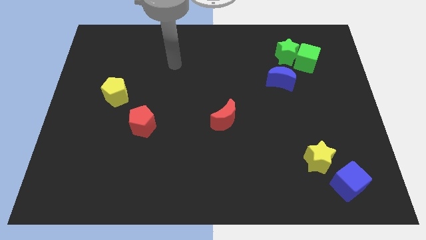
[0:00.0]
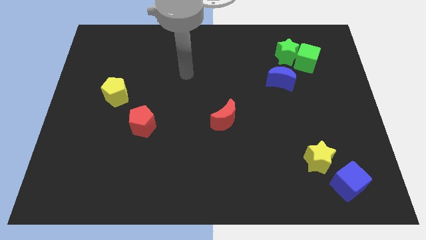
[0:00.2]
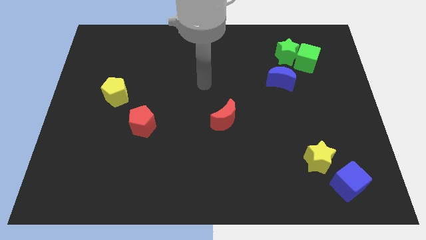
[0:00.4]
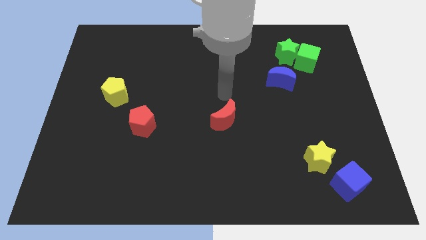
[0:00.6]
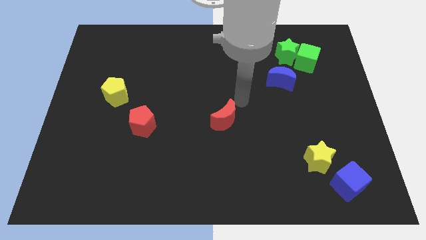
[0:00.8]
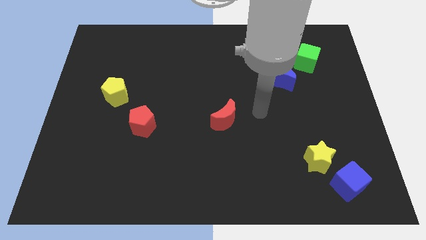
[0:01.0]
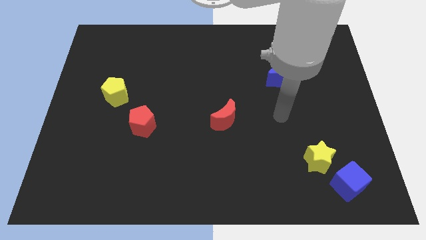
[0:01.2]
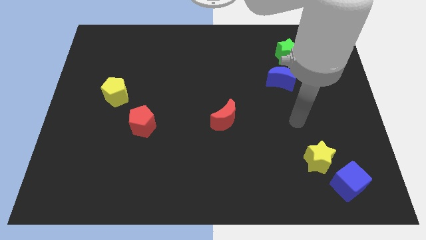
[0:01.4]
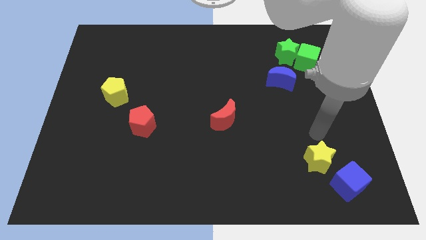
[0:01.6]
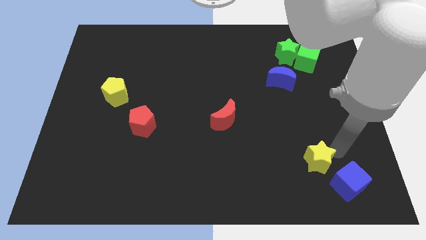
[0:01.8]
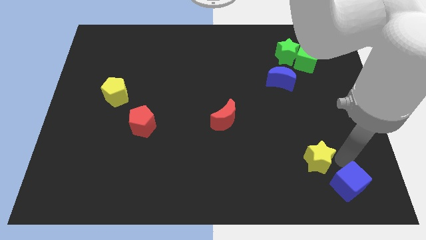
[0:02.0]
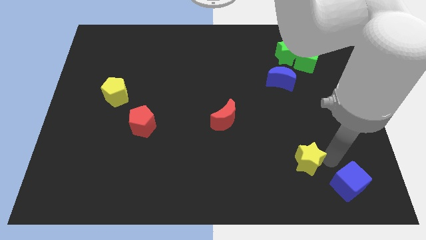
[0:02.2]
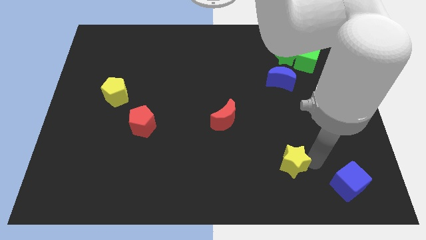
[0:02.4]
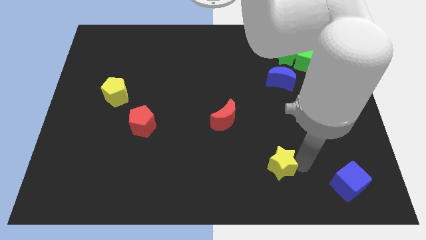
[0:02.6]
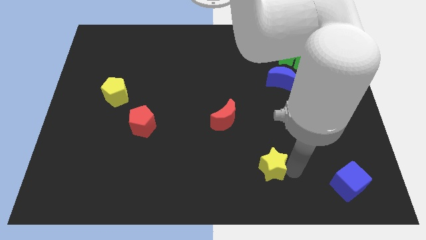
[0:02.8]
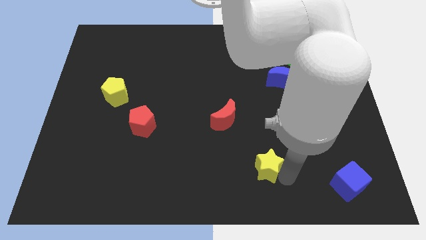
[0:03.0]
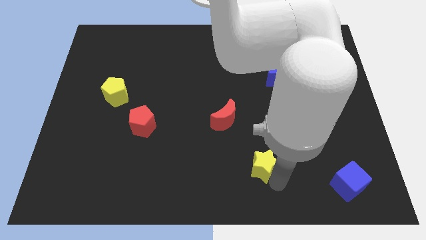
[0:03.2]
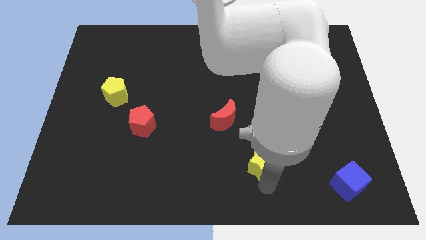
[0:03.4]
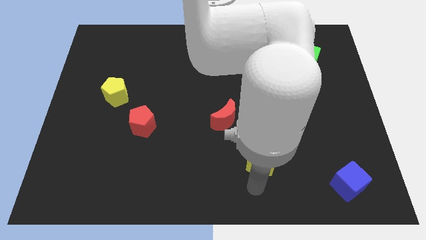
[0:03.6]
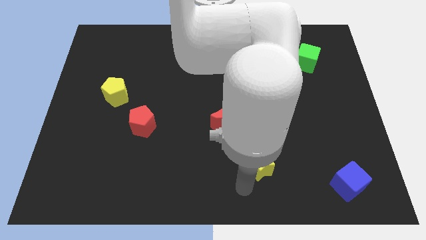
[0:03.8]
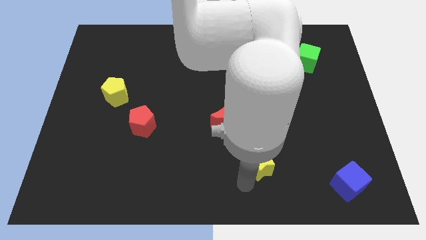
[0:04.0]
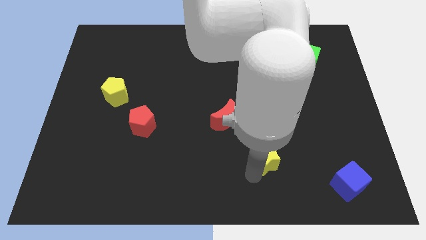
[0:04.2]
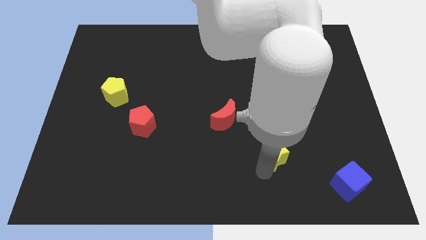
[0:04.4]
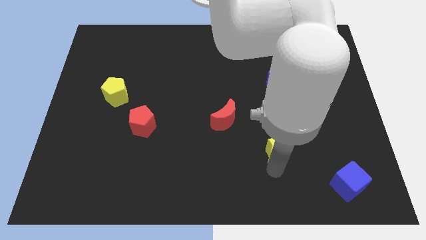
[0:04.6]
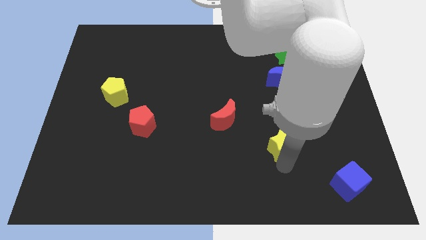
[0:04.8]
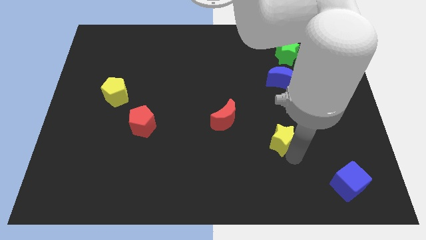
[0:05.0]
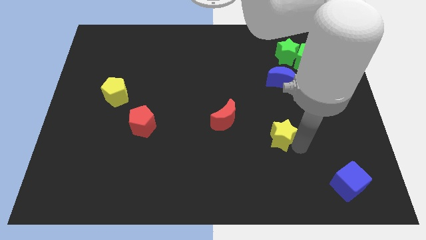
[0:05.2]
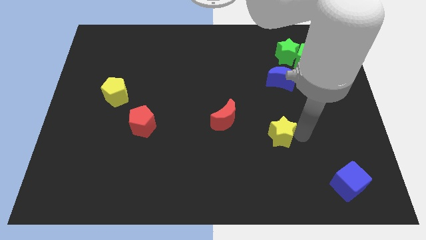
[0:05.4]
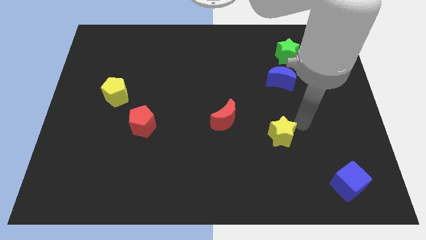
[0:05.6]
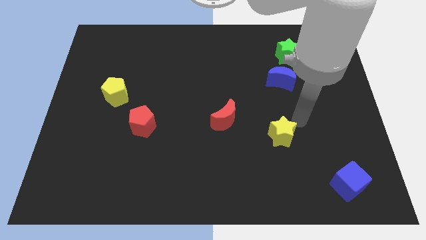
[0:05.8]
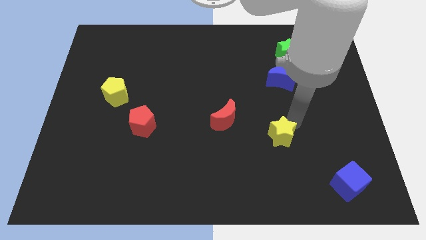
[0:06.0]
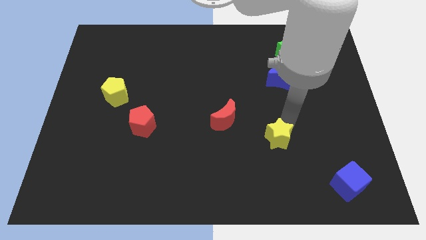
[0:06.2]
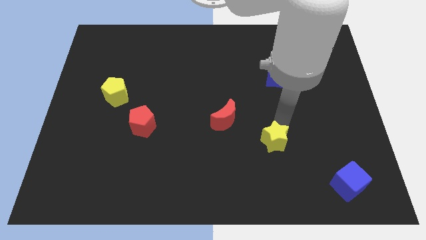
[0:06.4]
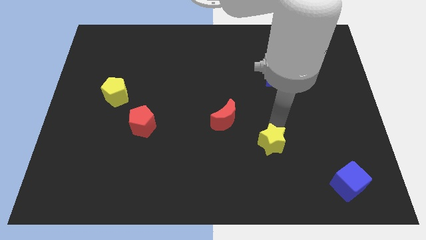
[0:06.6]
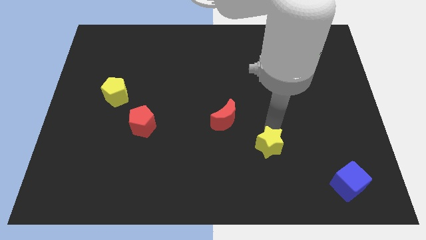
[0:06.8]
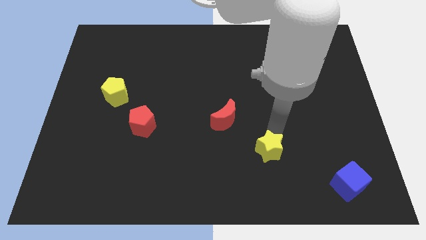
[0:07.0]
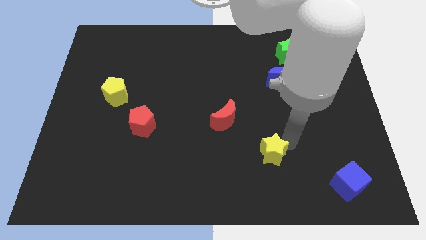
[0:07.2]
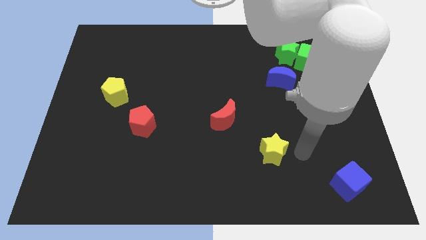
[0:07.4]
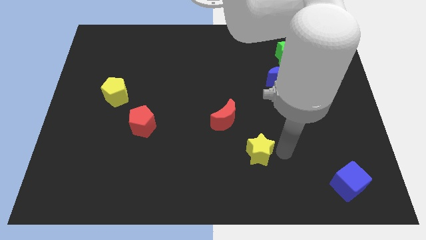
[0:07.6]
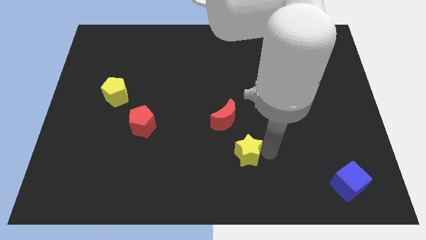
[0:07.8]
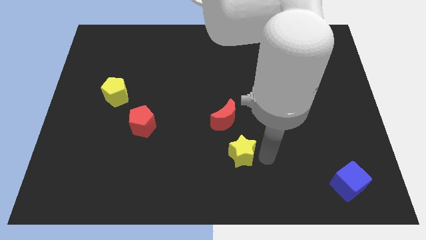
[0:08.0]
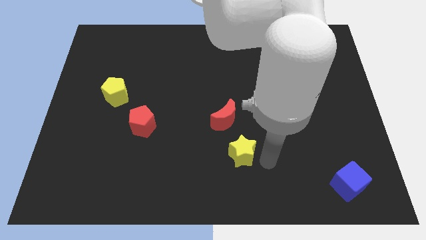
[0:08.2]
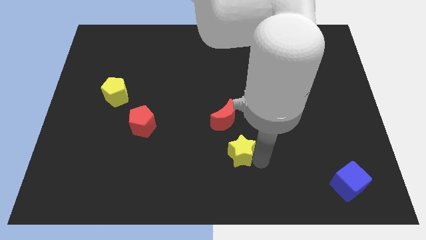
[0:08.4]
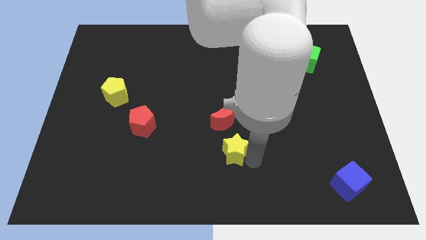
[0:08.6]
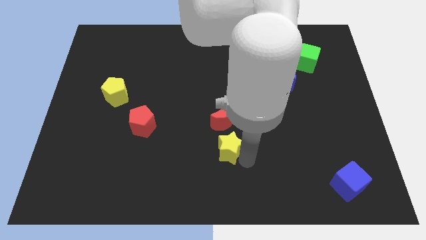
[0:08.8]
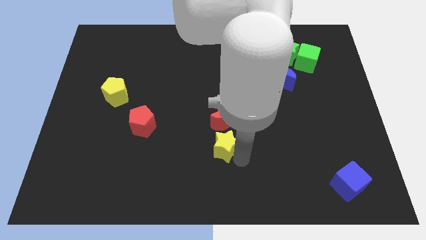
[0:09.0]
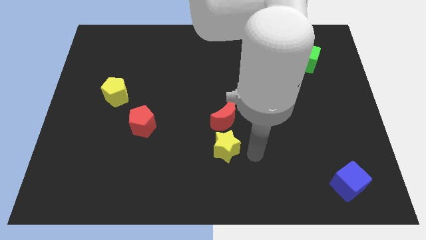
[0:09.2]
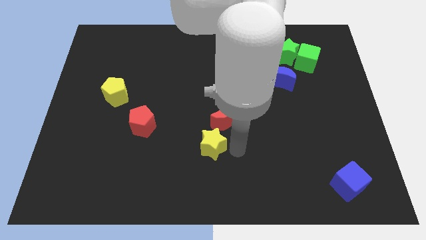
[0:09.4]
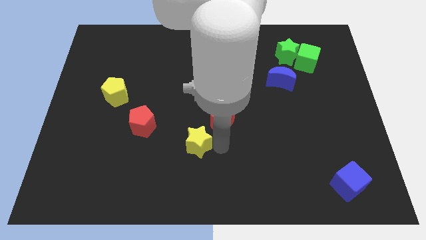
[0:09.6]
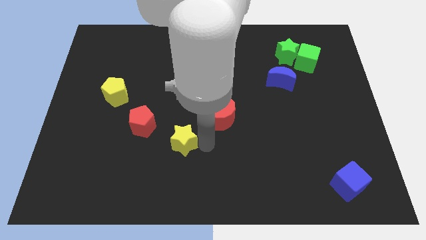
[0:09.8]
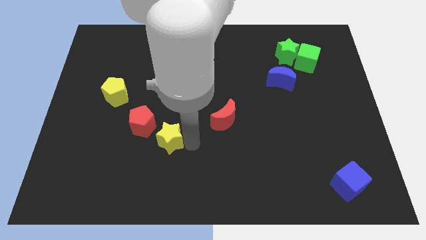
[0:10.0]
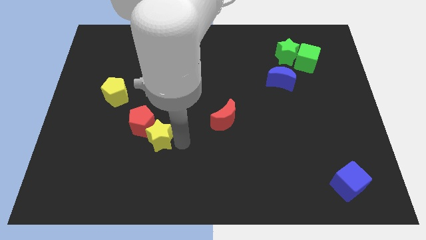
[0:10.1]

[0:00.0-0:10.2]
move the yellow star to the red pentagon

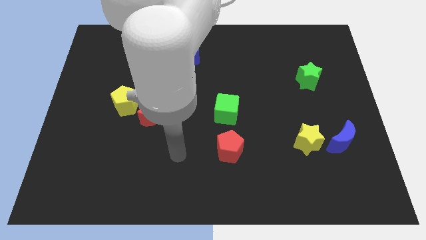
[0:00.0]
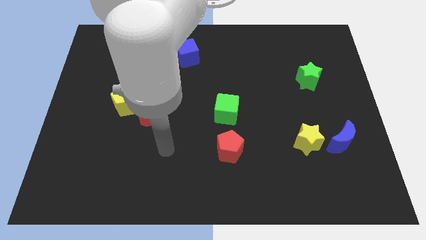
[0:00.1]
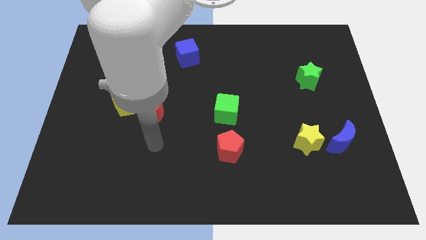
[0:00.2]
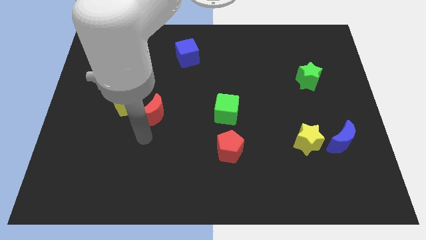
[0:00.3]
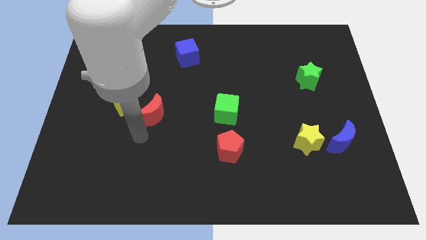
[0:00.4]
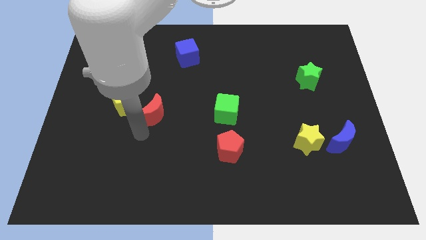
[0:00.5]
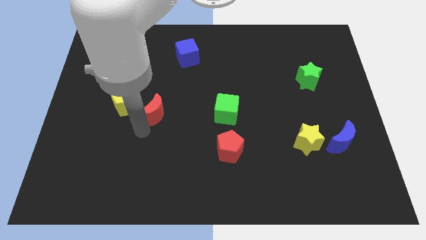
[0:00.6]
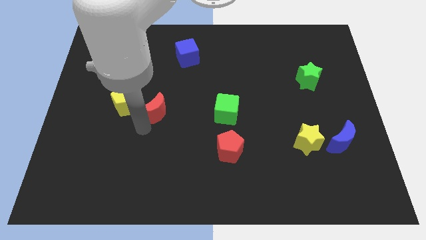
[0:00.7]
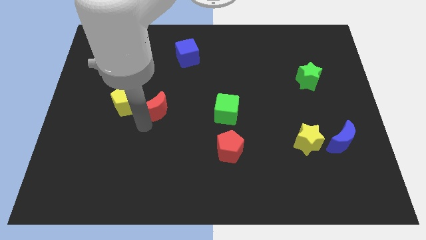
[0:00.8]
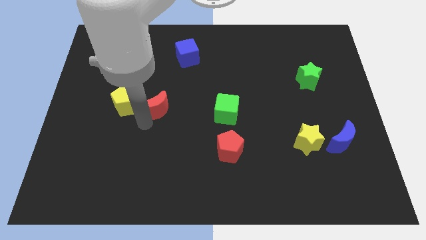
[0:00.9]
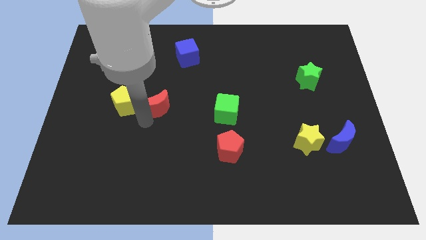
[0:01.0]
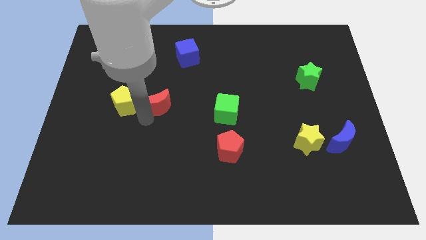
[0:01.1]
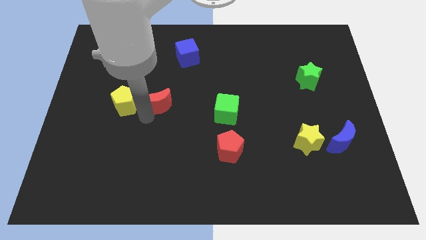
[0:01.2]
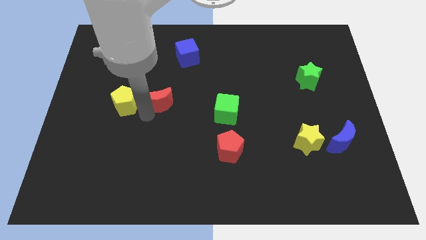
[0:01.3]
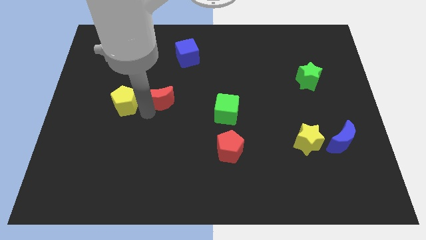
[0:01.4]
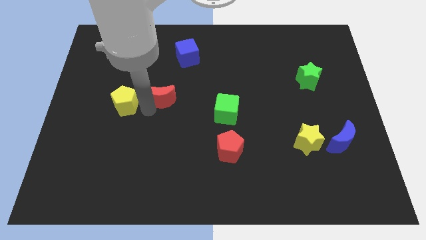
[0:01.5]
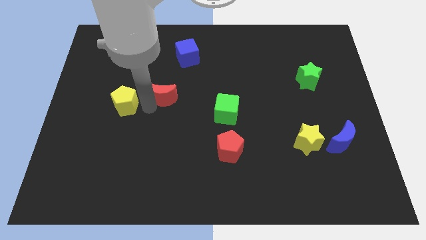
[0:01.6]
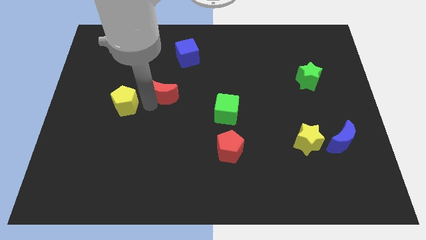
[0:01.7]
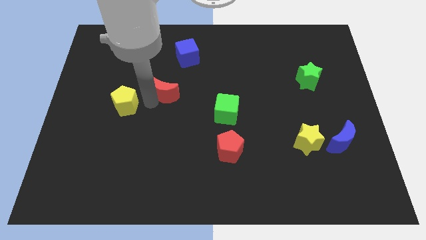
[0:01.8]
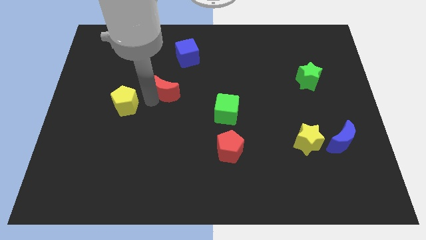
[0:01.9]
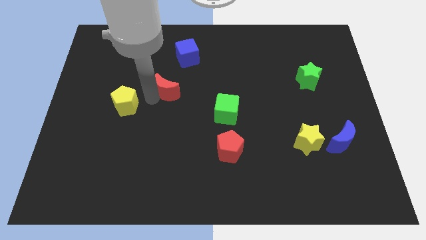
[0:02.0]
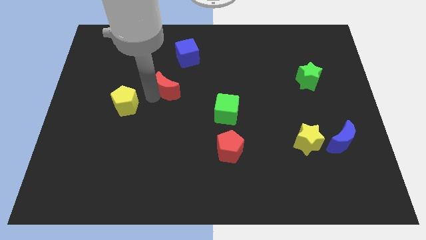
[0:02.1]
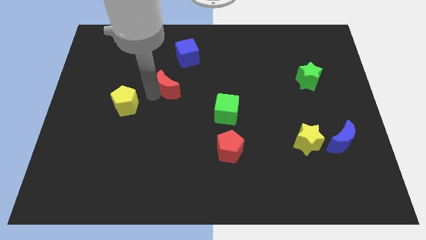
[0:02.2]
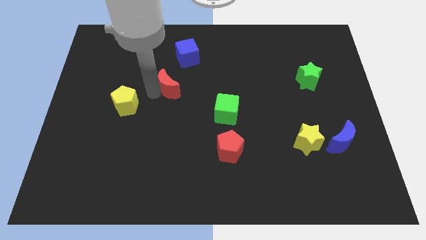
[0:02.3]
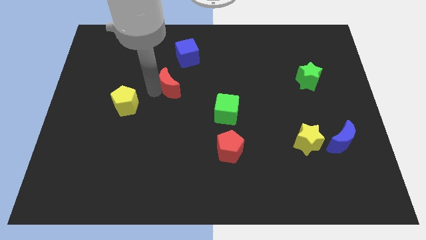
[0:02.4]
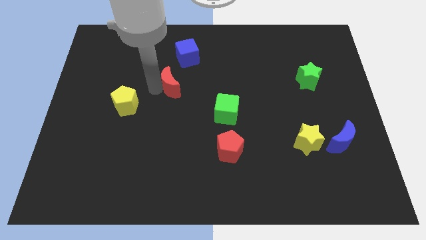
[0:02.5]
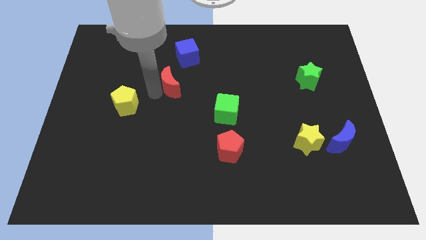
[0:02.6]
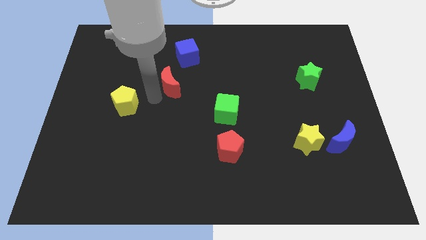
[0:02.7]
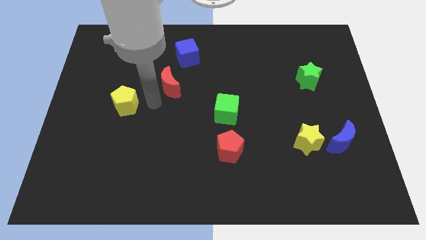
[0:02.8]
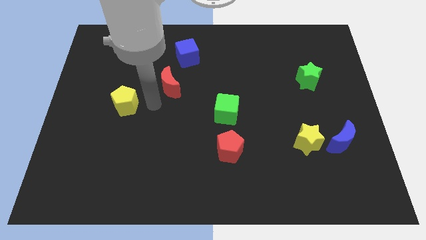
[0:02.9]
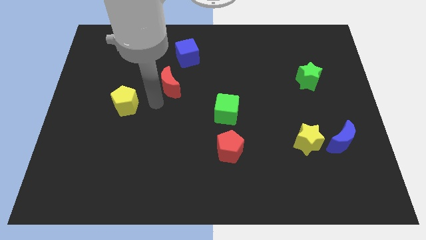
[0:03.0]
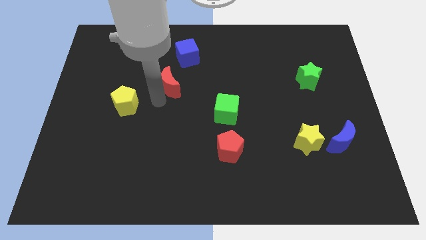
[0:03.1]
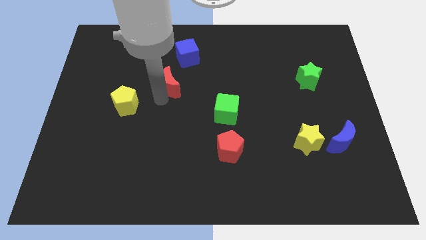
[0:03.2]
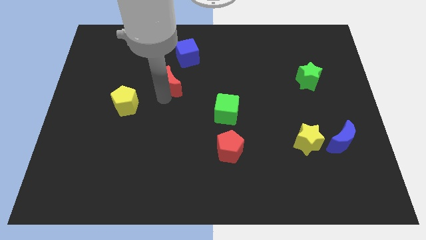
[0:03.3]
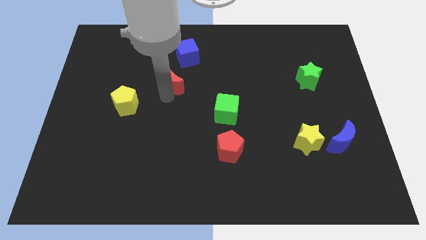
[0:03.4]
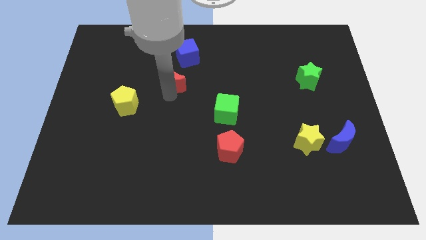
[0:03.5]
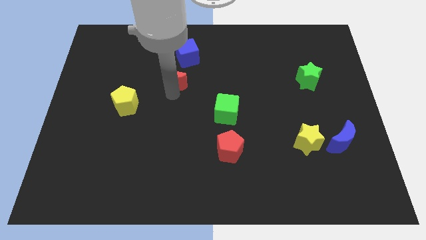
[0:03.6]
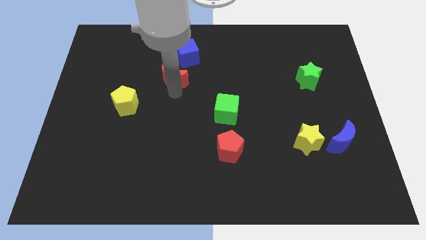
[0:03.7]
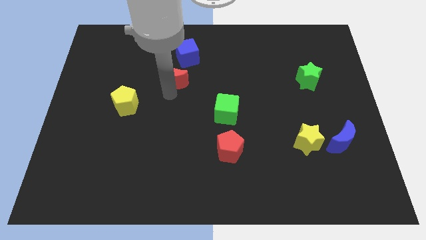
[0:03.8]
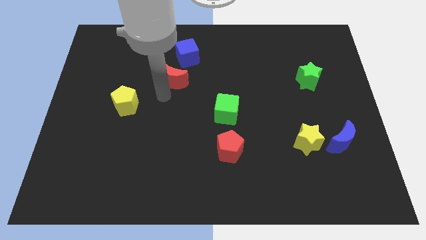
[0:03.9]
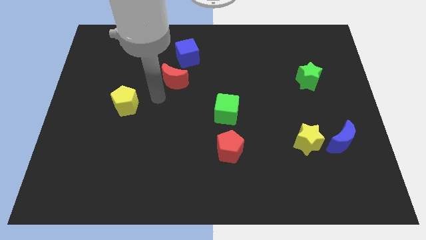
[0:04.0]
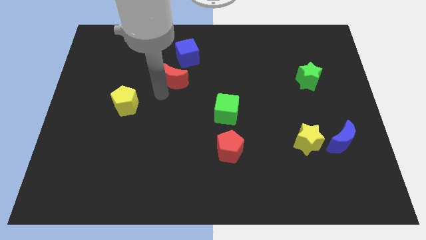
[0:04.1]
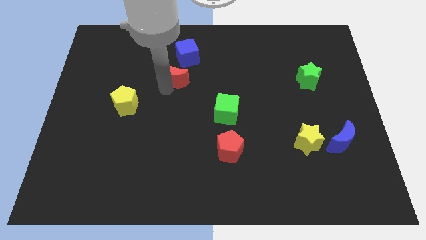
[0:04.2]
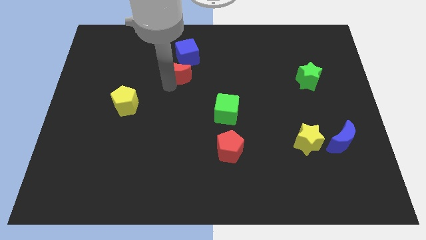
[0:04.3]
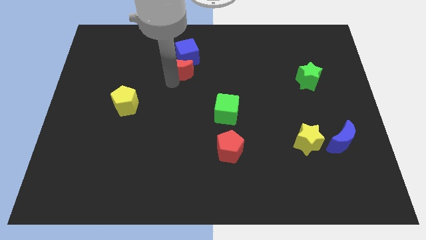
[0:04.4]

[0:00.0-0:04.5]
put the red moon close to the blue cube
